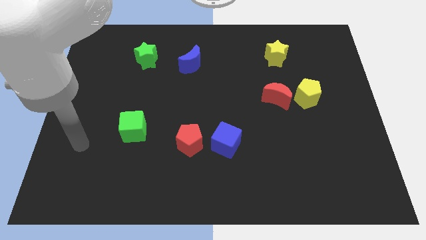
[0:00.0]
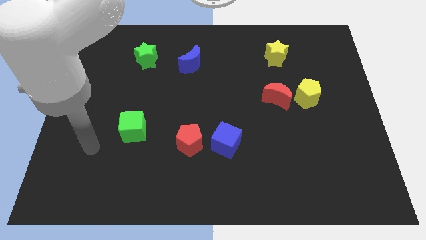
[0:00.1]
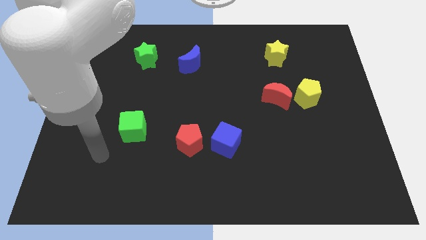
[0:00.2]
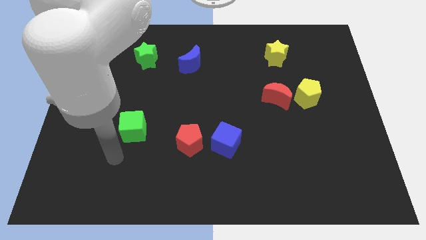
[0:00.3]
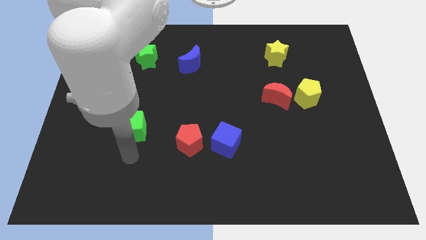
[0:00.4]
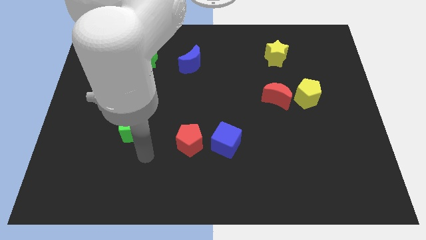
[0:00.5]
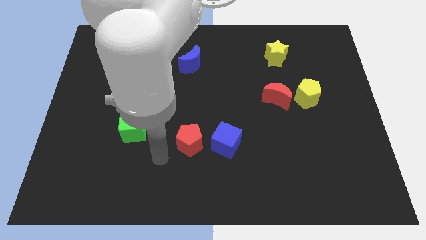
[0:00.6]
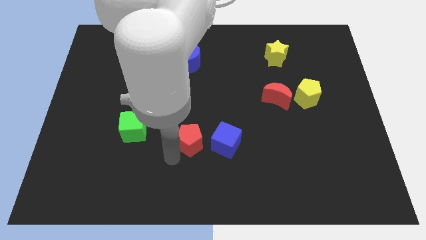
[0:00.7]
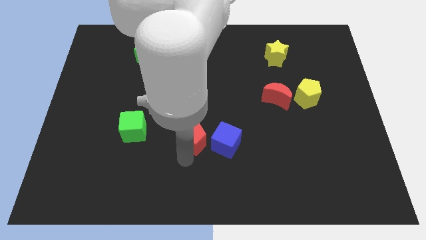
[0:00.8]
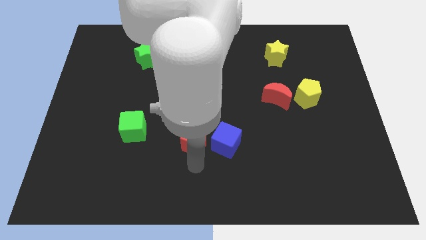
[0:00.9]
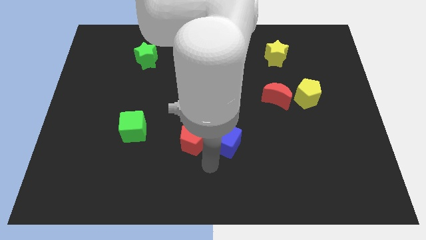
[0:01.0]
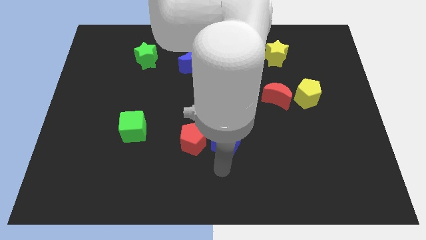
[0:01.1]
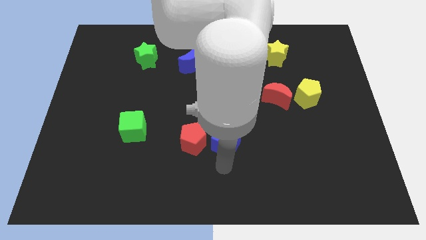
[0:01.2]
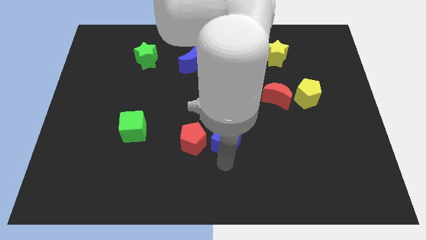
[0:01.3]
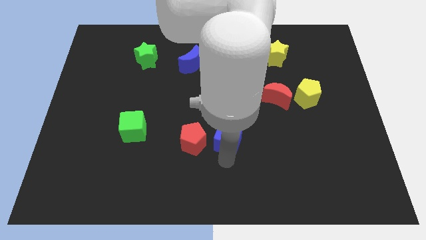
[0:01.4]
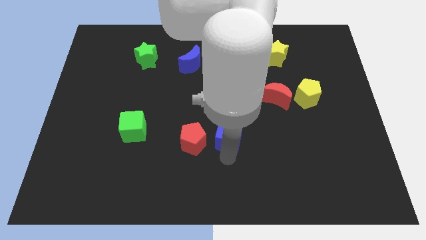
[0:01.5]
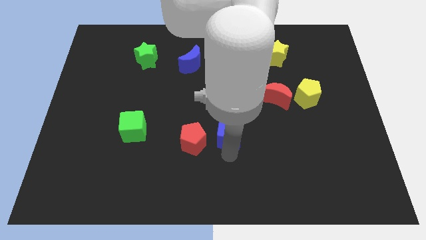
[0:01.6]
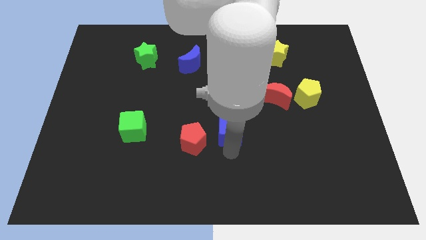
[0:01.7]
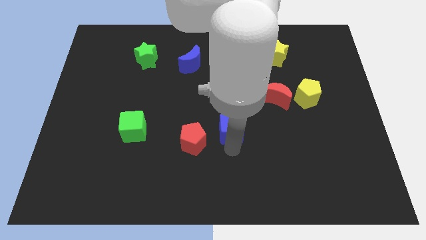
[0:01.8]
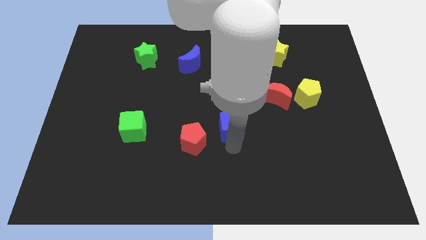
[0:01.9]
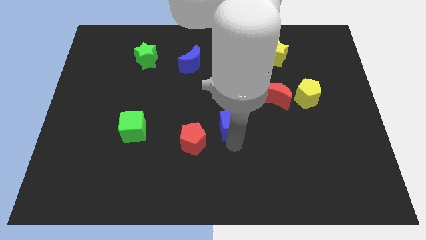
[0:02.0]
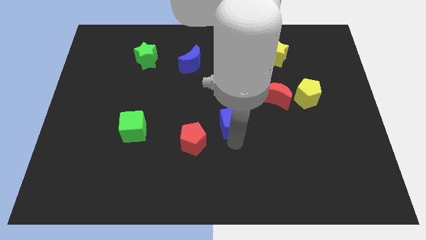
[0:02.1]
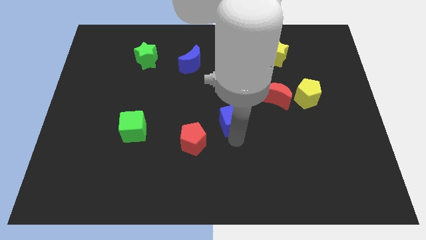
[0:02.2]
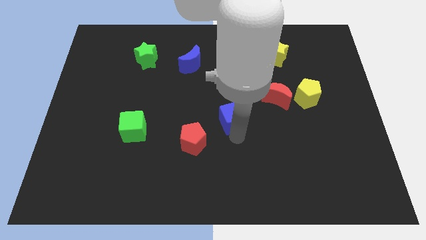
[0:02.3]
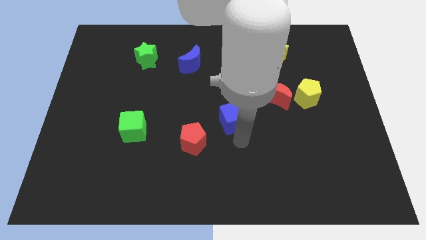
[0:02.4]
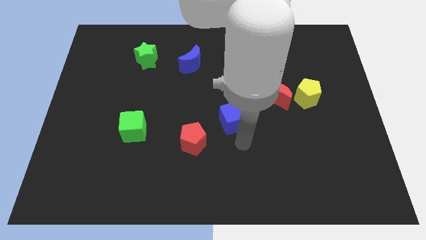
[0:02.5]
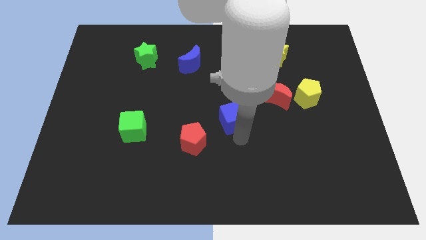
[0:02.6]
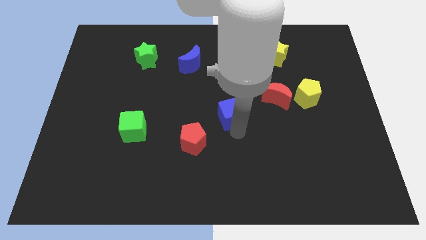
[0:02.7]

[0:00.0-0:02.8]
push the blue cube upwards a bit

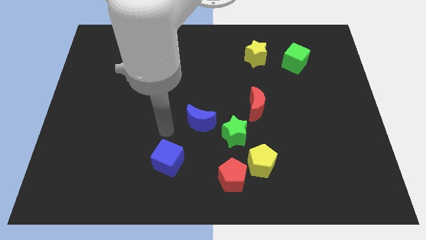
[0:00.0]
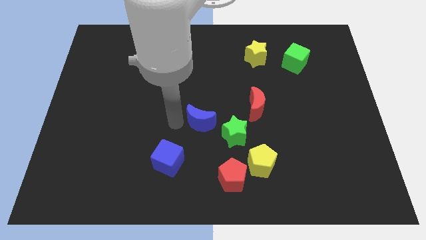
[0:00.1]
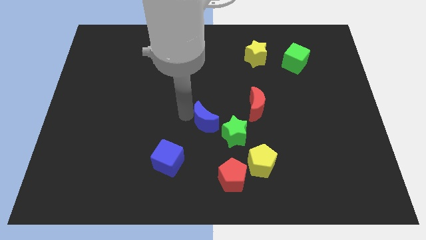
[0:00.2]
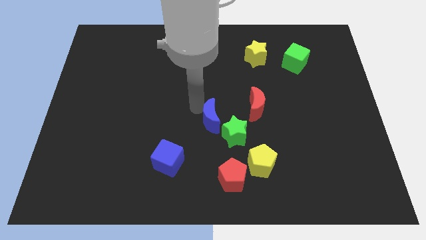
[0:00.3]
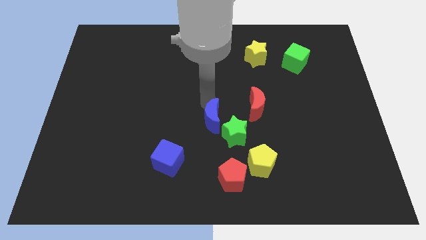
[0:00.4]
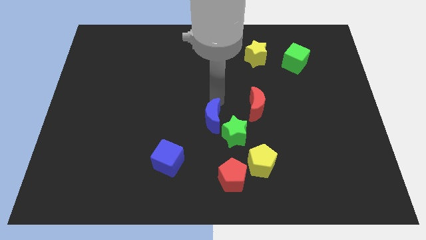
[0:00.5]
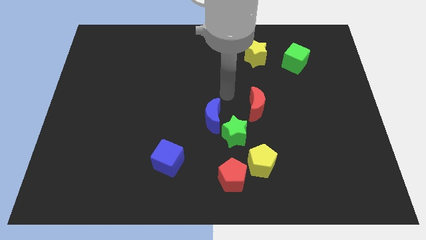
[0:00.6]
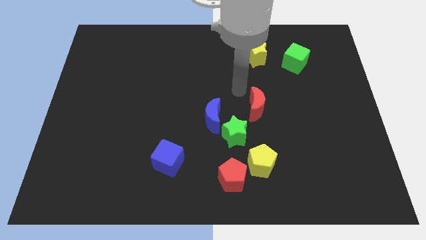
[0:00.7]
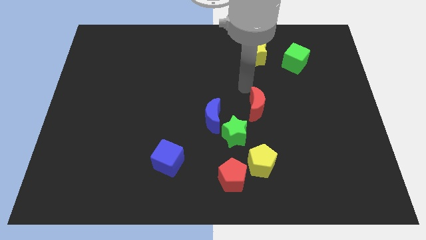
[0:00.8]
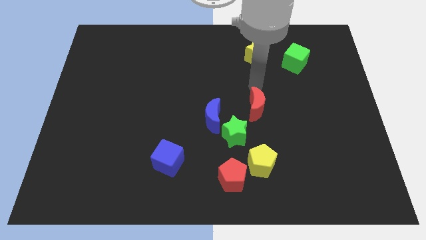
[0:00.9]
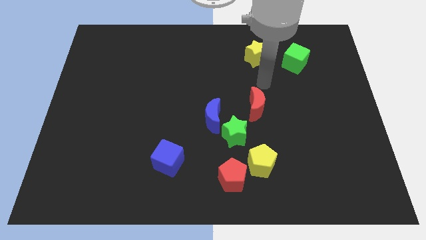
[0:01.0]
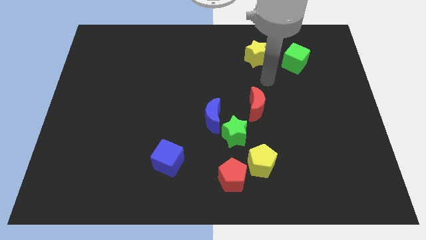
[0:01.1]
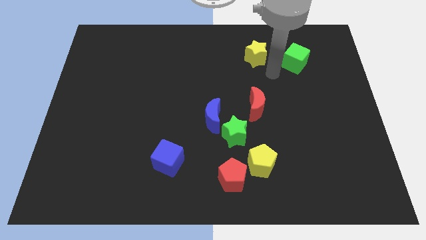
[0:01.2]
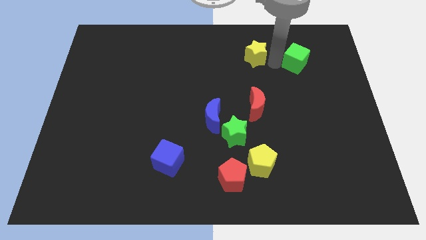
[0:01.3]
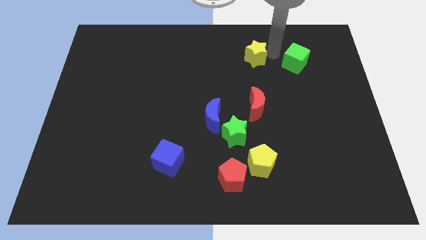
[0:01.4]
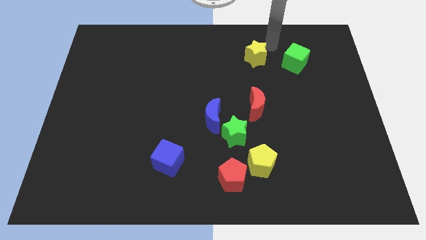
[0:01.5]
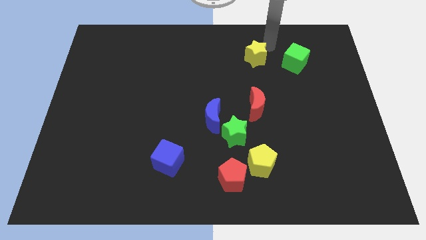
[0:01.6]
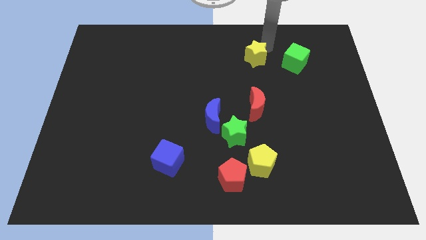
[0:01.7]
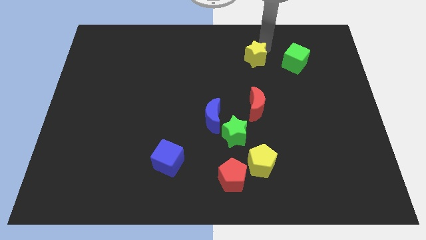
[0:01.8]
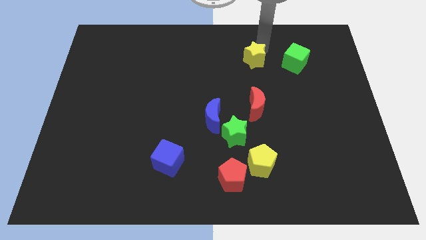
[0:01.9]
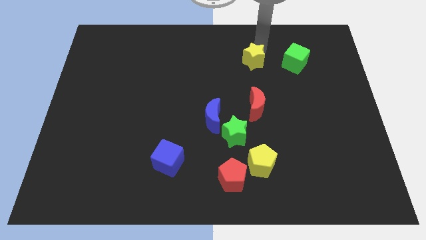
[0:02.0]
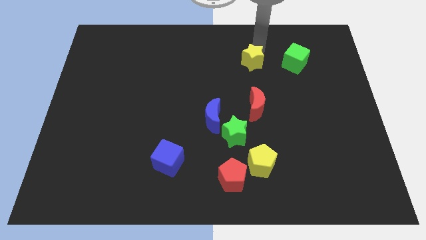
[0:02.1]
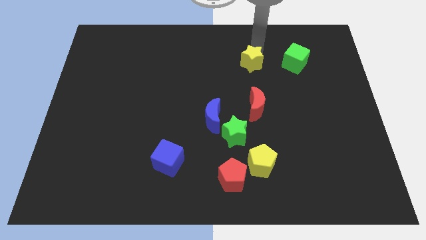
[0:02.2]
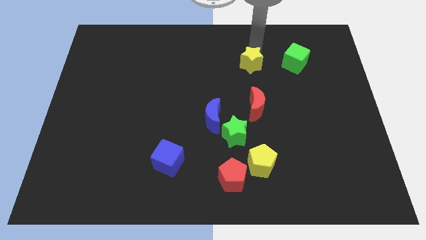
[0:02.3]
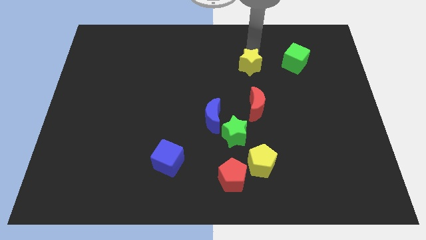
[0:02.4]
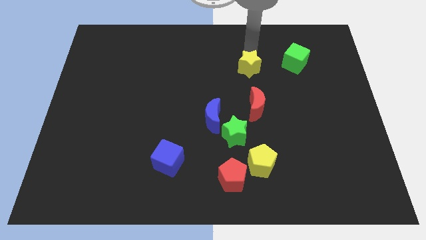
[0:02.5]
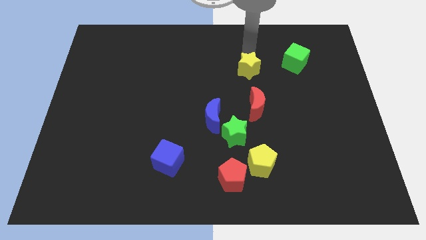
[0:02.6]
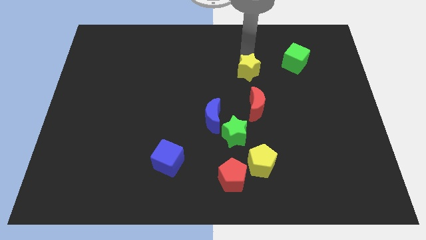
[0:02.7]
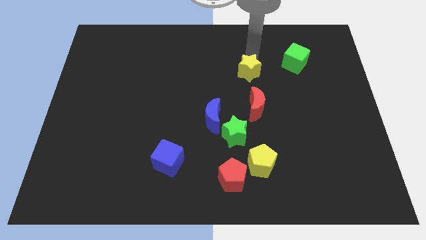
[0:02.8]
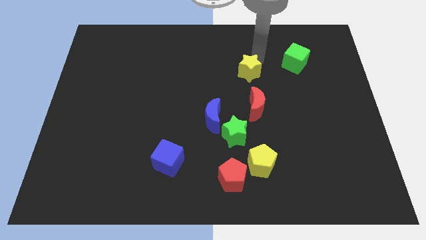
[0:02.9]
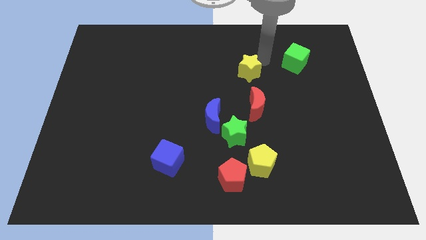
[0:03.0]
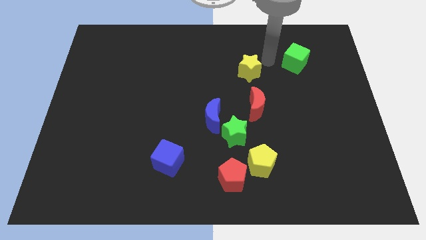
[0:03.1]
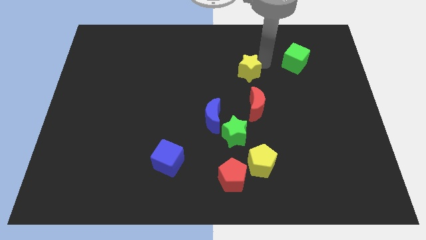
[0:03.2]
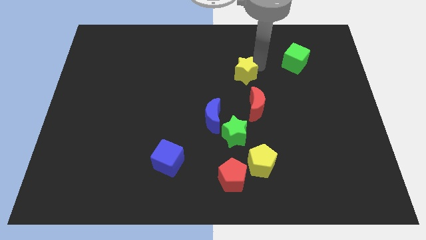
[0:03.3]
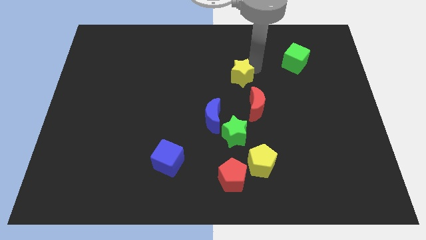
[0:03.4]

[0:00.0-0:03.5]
push the yellow star somewhat downwards and then left

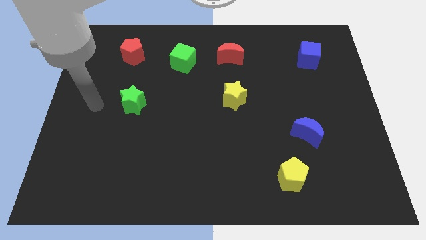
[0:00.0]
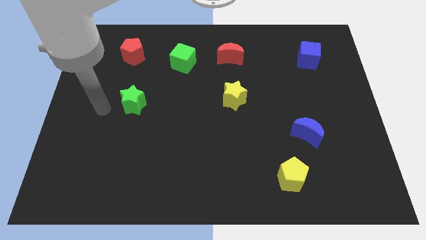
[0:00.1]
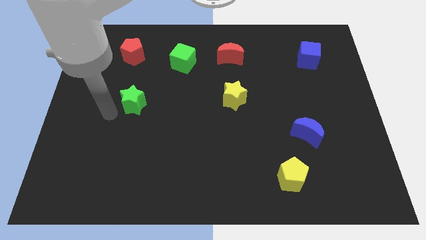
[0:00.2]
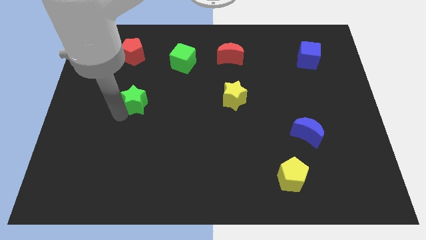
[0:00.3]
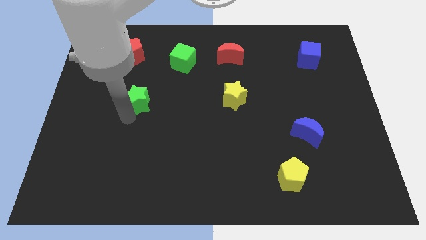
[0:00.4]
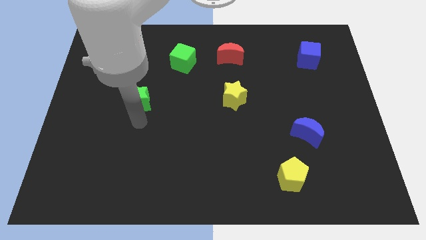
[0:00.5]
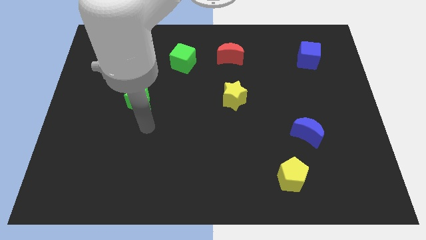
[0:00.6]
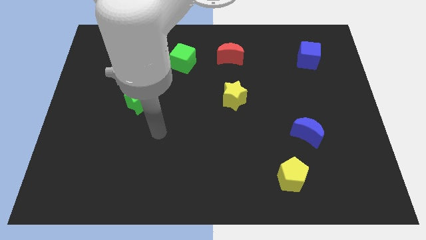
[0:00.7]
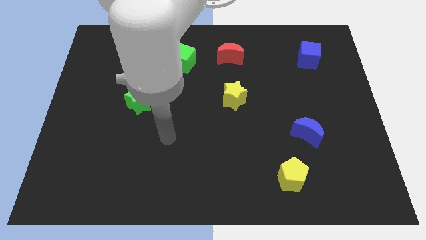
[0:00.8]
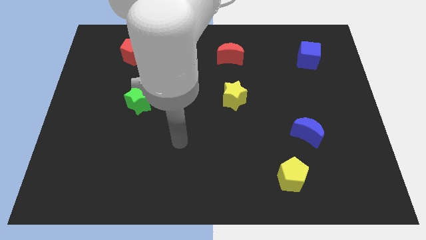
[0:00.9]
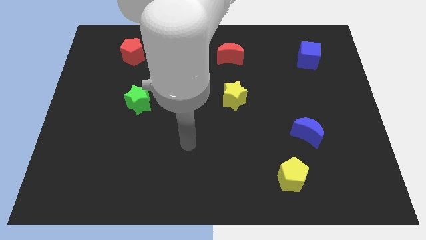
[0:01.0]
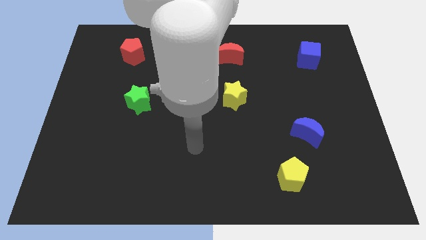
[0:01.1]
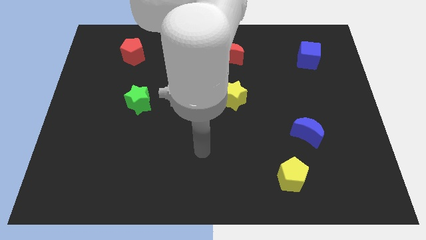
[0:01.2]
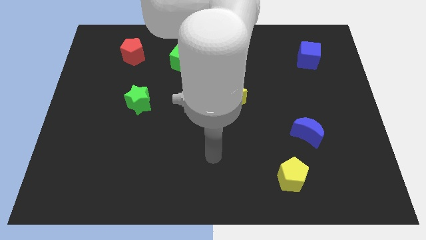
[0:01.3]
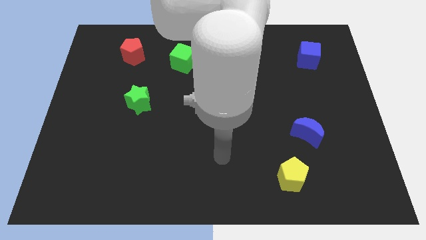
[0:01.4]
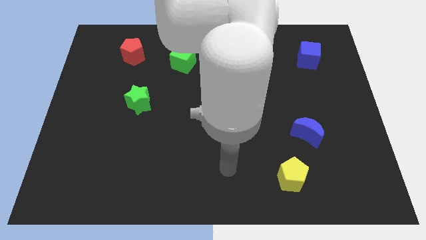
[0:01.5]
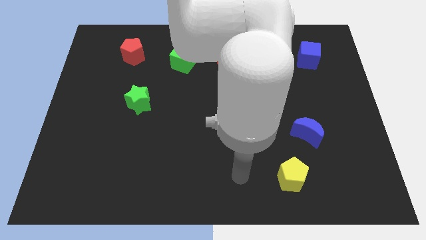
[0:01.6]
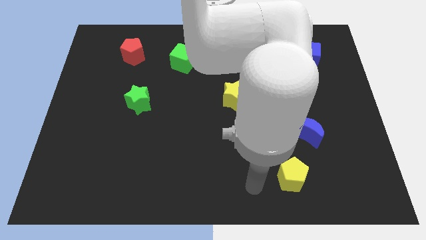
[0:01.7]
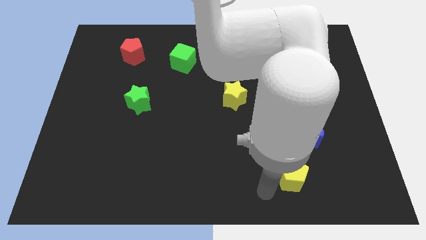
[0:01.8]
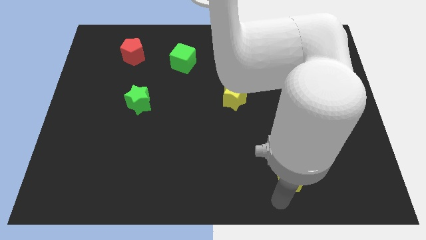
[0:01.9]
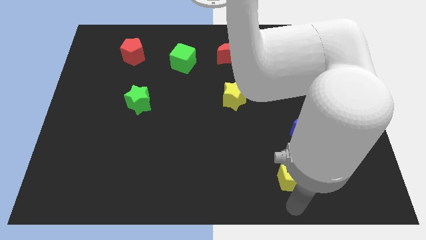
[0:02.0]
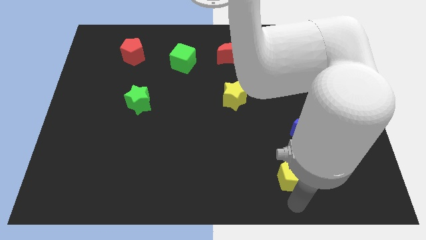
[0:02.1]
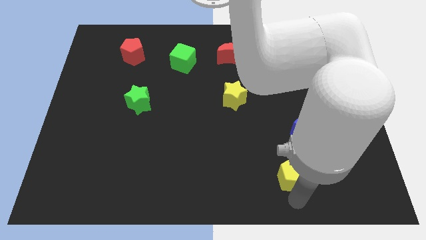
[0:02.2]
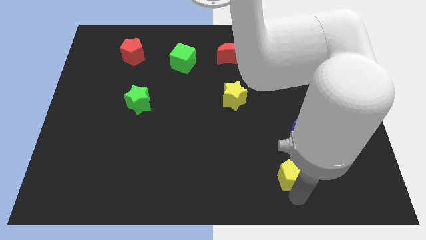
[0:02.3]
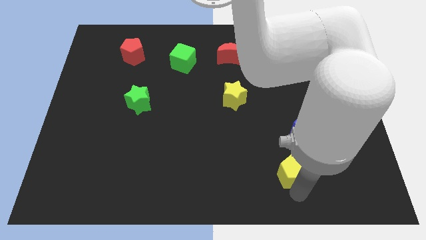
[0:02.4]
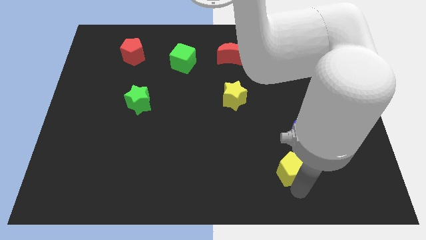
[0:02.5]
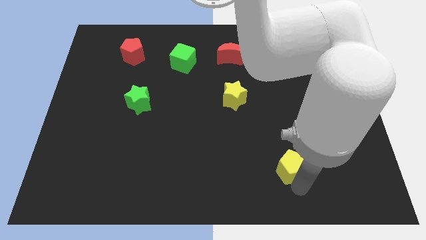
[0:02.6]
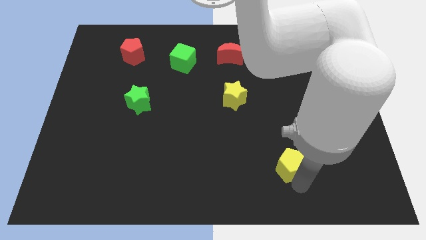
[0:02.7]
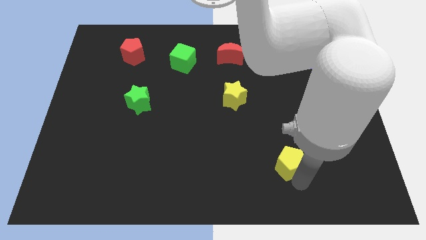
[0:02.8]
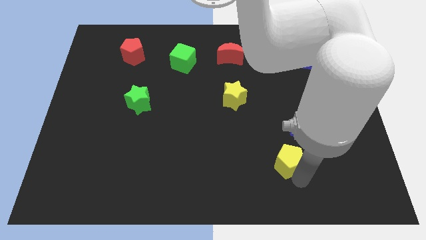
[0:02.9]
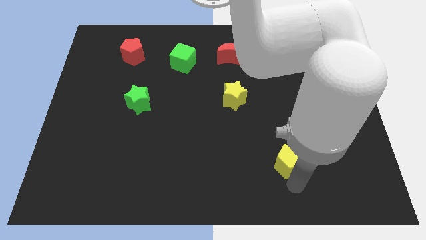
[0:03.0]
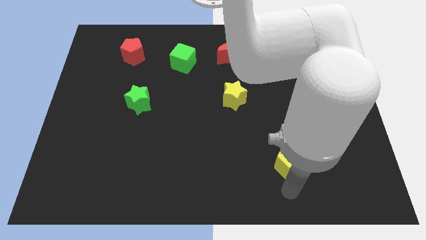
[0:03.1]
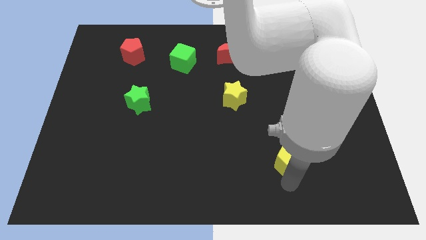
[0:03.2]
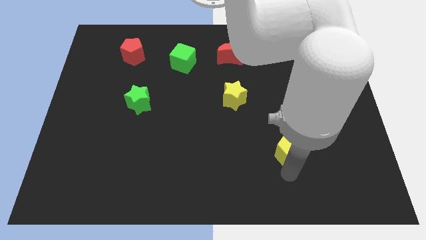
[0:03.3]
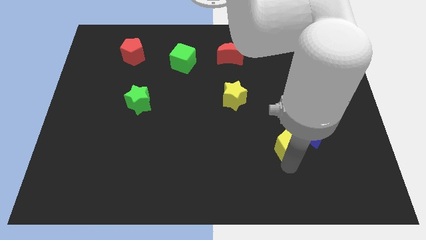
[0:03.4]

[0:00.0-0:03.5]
slightly push the yellow pentagon up
